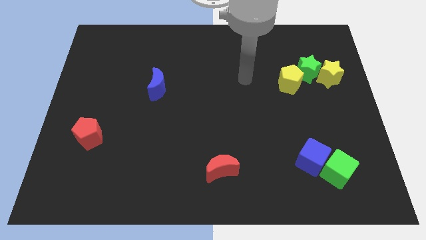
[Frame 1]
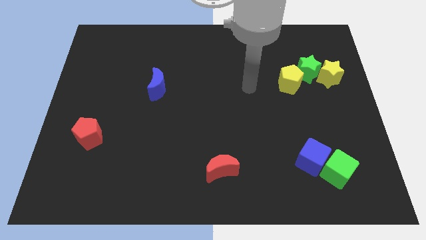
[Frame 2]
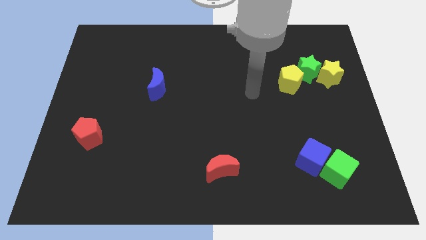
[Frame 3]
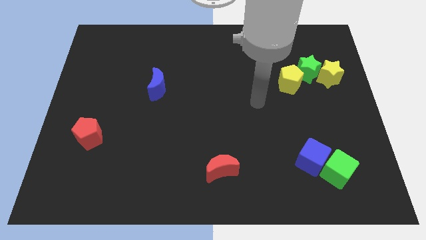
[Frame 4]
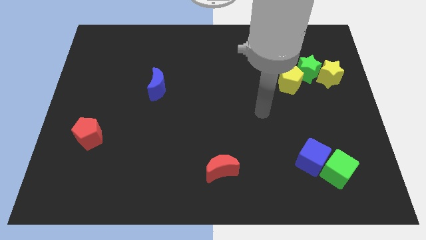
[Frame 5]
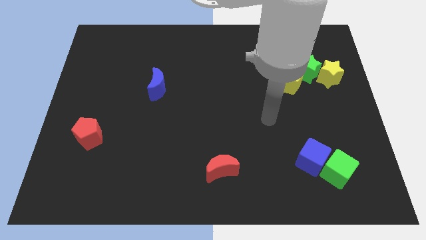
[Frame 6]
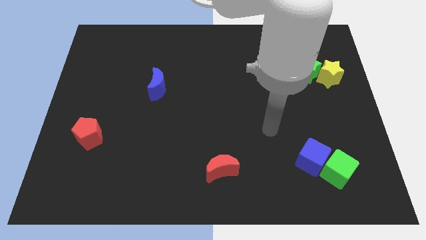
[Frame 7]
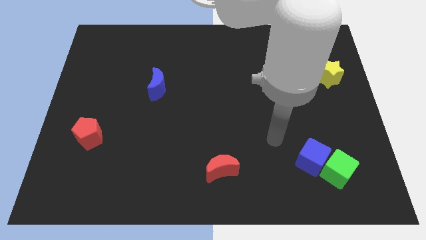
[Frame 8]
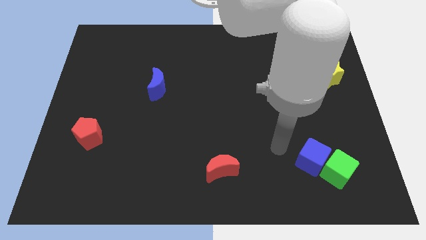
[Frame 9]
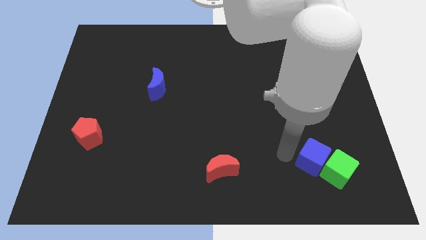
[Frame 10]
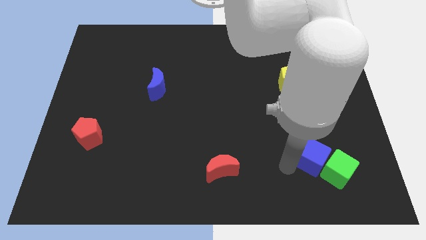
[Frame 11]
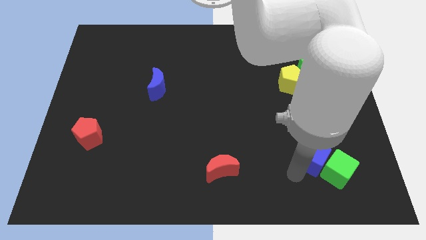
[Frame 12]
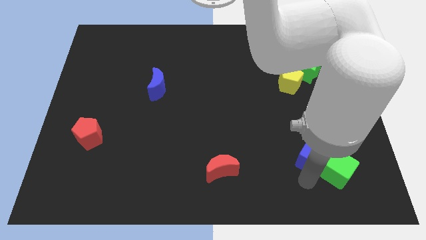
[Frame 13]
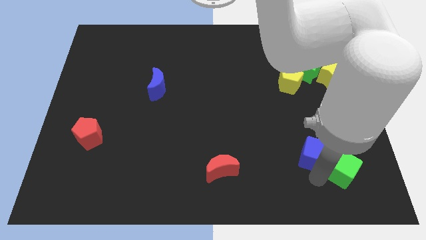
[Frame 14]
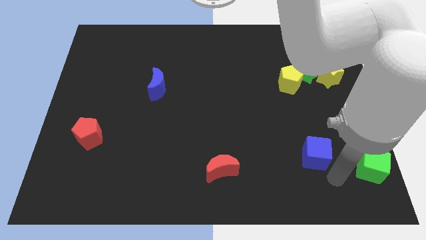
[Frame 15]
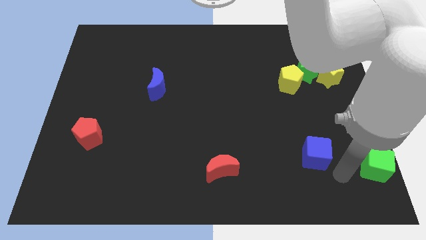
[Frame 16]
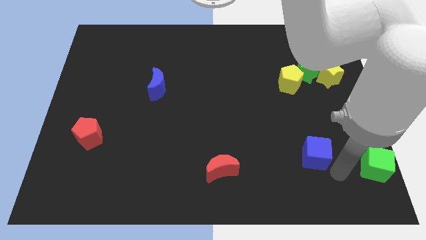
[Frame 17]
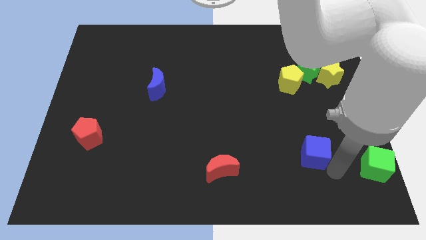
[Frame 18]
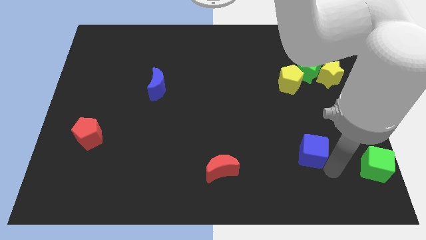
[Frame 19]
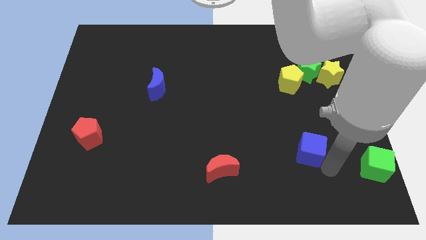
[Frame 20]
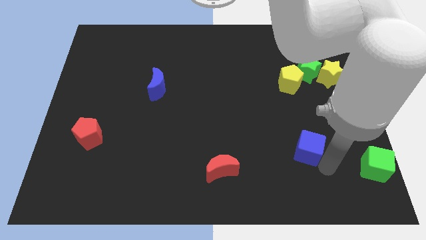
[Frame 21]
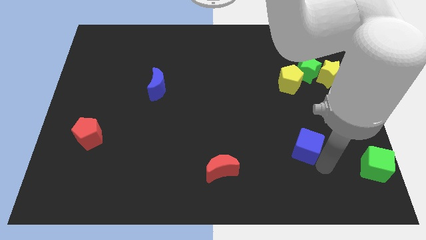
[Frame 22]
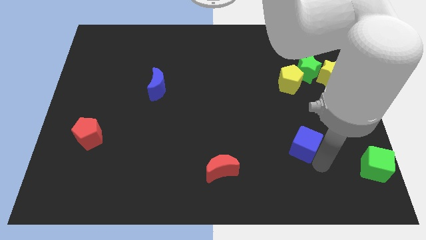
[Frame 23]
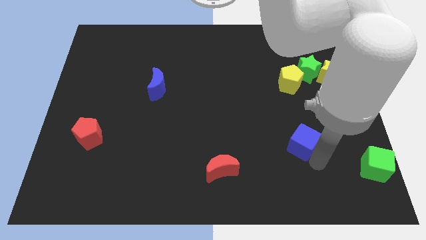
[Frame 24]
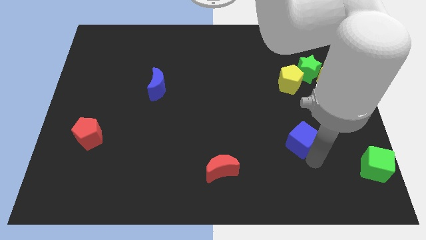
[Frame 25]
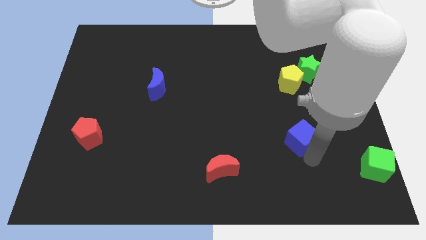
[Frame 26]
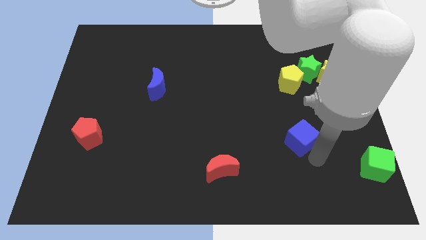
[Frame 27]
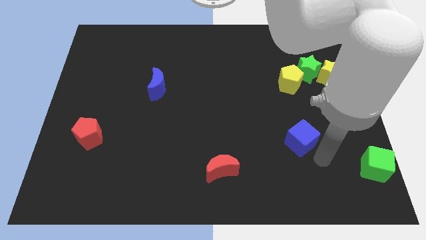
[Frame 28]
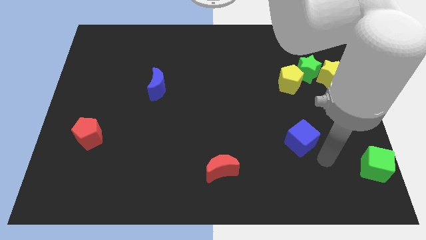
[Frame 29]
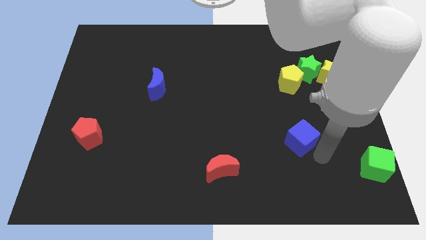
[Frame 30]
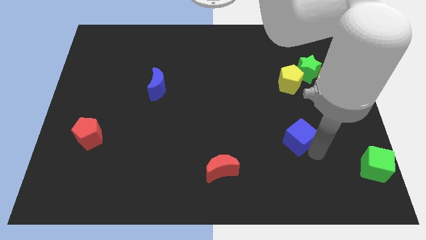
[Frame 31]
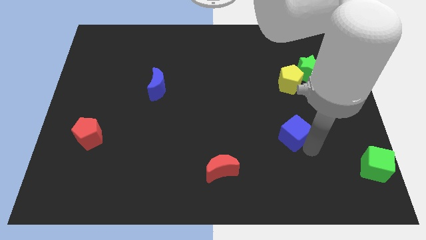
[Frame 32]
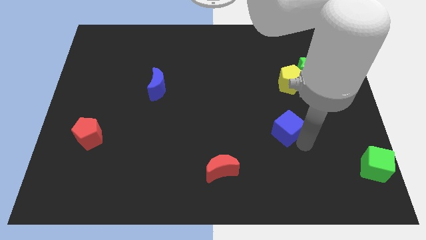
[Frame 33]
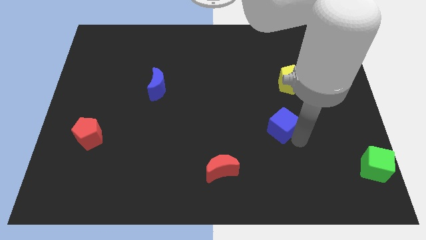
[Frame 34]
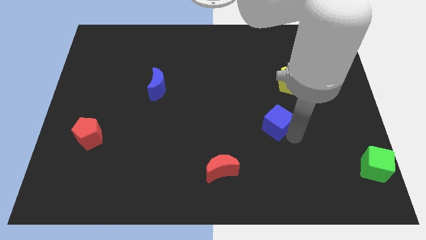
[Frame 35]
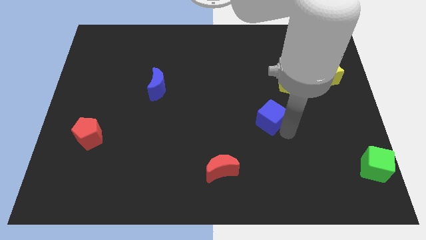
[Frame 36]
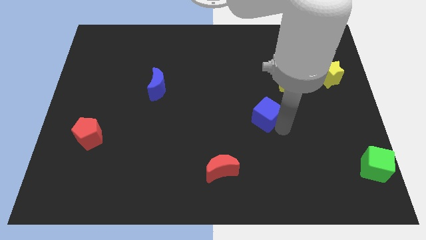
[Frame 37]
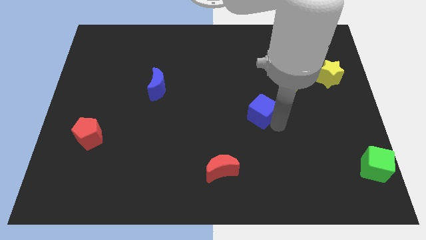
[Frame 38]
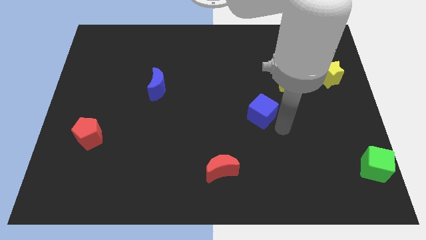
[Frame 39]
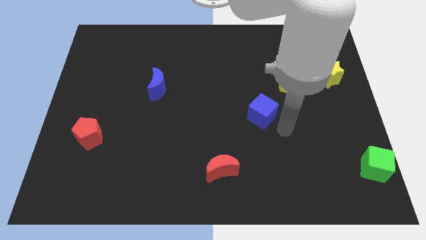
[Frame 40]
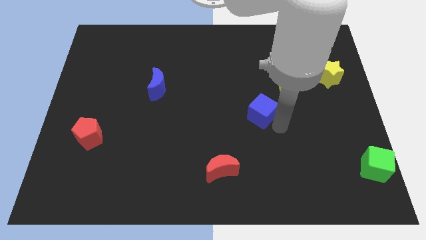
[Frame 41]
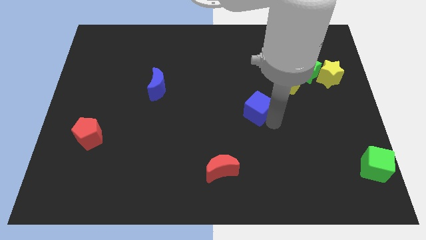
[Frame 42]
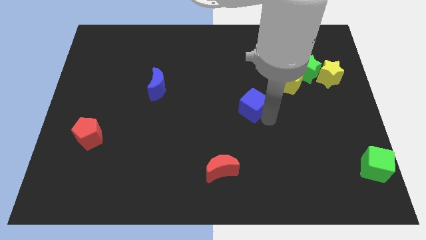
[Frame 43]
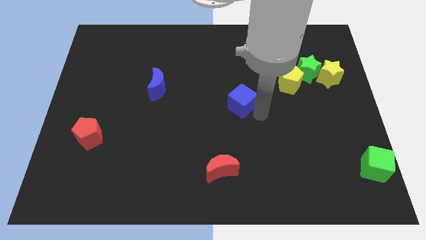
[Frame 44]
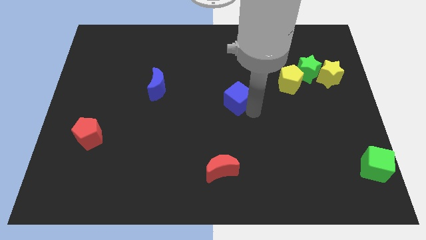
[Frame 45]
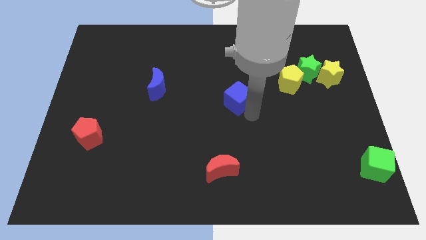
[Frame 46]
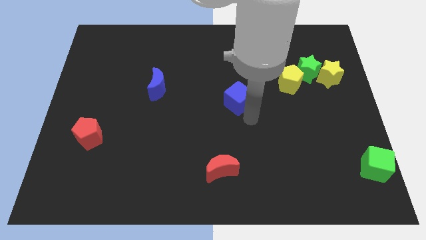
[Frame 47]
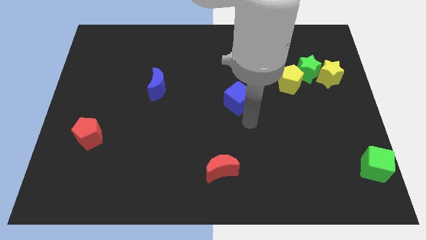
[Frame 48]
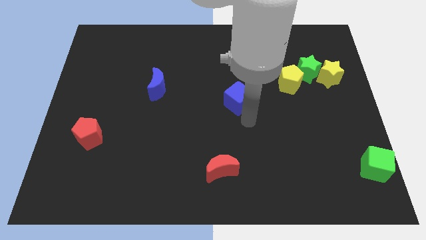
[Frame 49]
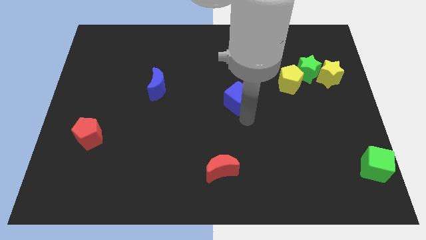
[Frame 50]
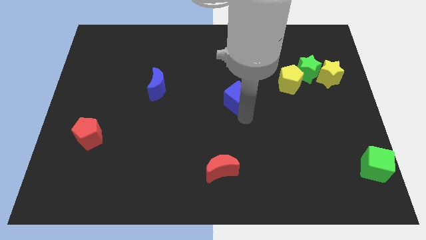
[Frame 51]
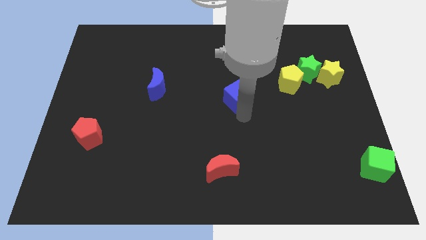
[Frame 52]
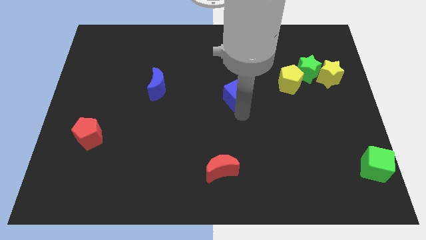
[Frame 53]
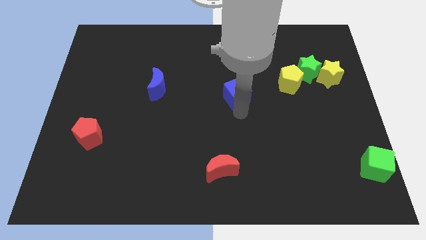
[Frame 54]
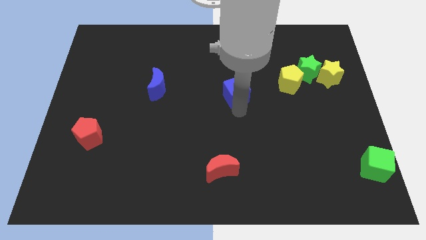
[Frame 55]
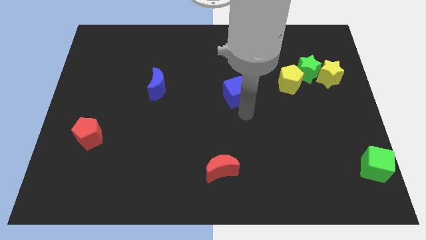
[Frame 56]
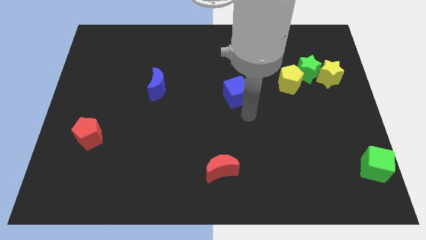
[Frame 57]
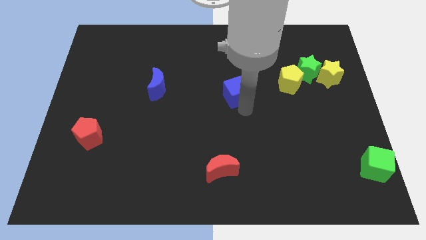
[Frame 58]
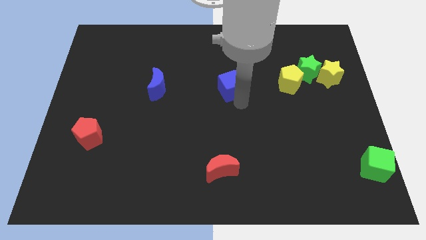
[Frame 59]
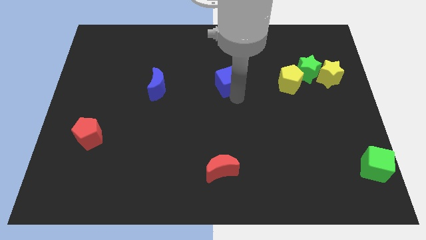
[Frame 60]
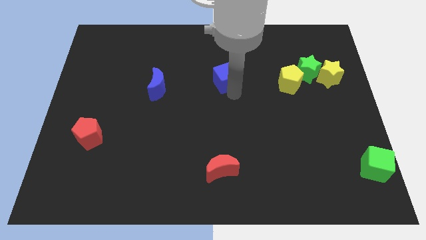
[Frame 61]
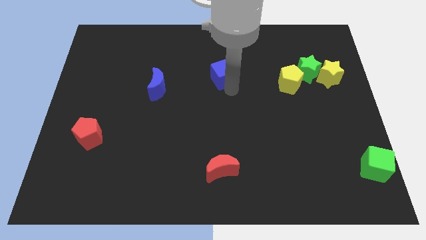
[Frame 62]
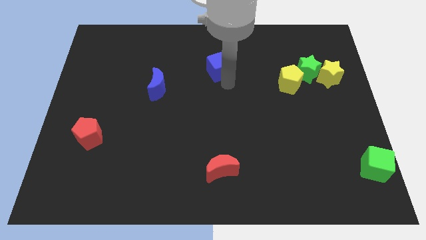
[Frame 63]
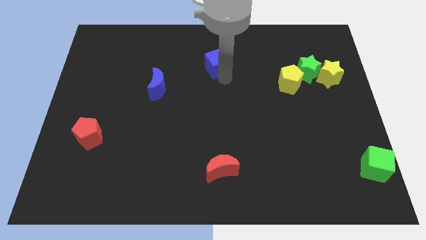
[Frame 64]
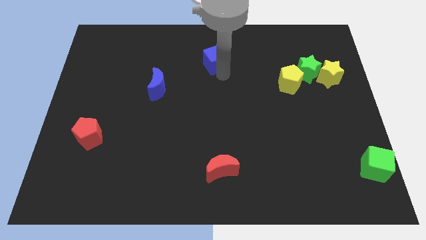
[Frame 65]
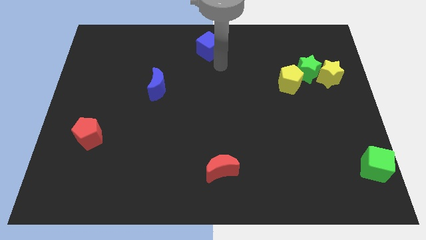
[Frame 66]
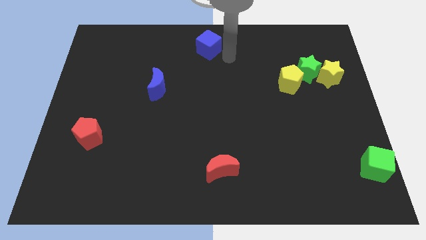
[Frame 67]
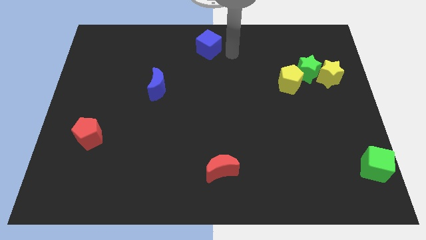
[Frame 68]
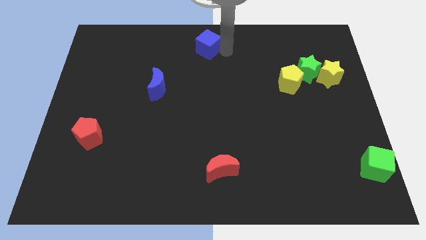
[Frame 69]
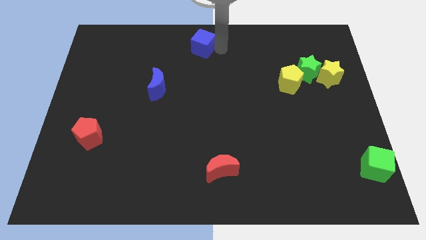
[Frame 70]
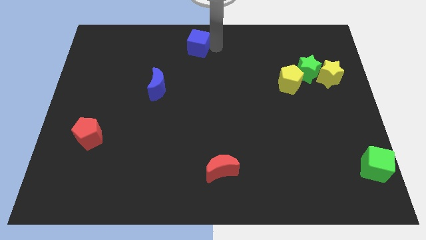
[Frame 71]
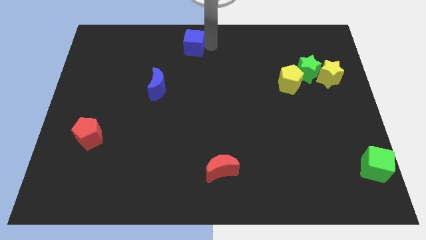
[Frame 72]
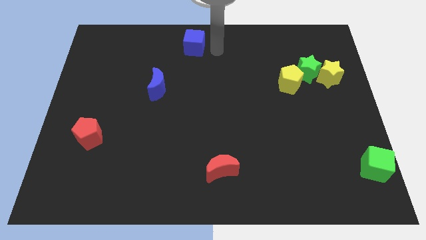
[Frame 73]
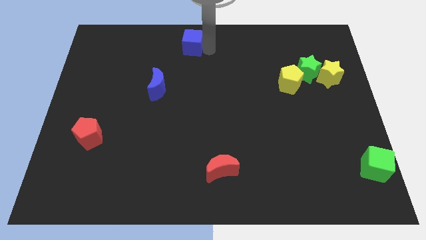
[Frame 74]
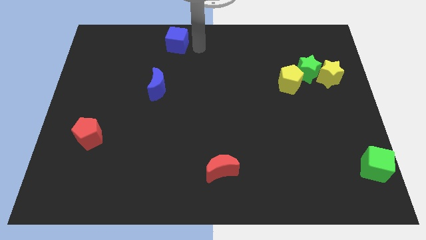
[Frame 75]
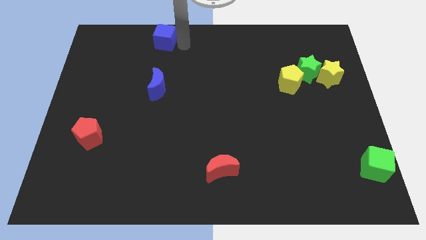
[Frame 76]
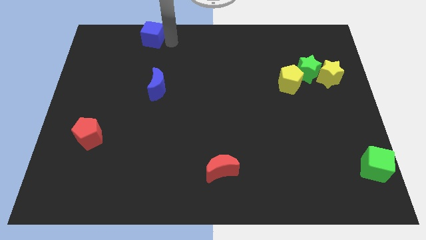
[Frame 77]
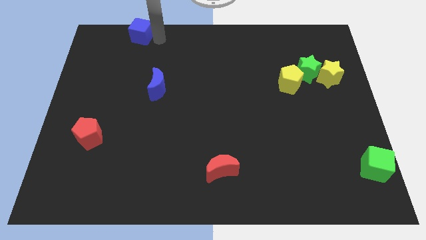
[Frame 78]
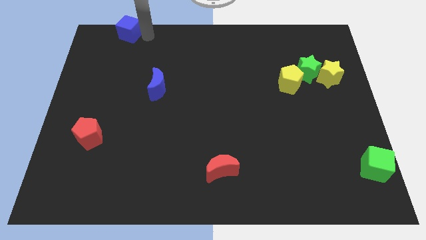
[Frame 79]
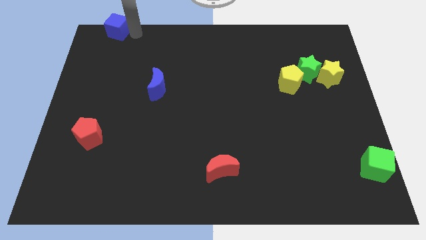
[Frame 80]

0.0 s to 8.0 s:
push the blue cube to the top left
